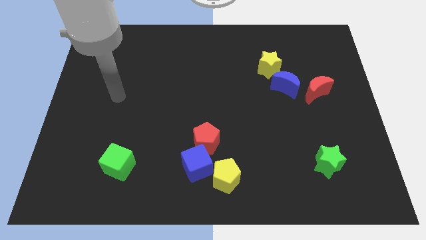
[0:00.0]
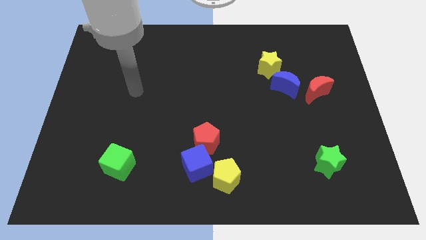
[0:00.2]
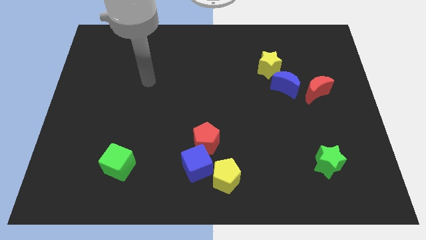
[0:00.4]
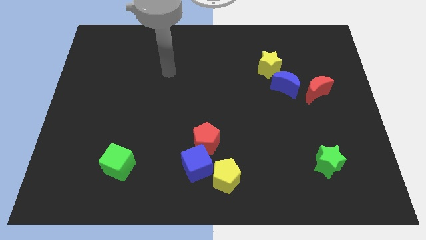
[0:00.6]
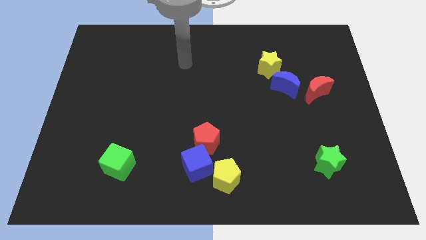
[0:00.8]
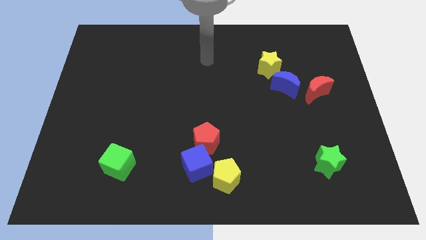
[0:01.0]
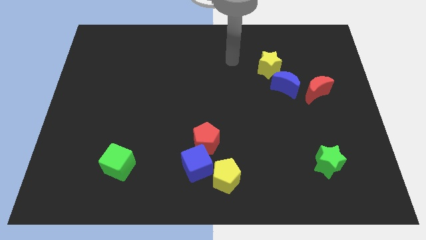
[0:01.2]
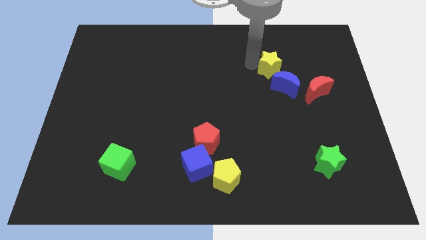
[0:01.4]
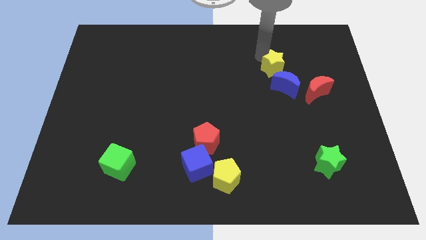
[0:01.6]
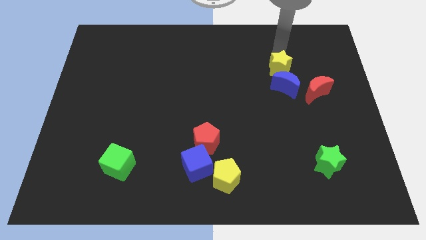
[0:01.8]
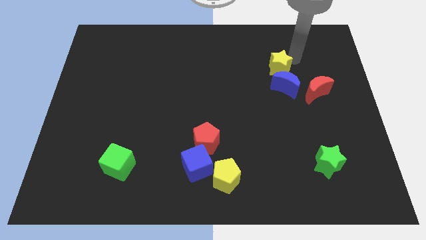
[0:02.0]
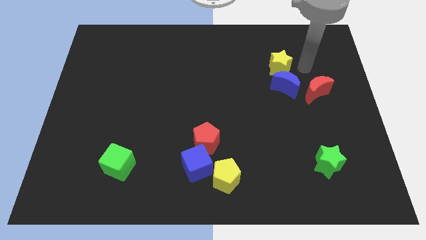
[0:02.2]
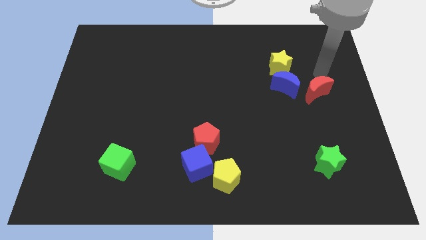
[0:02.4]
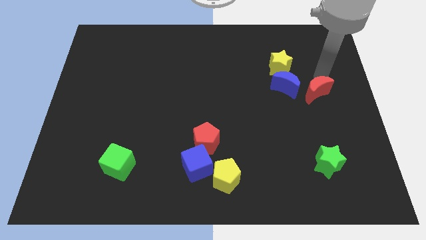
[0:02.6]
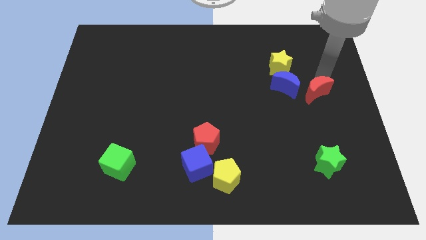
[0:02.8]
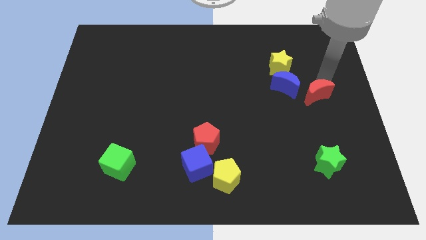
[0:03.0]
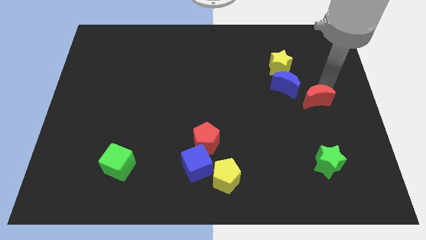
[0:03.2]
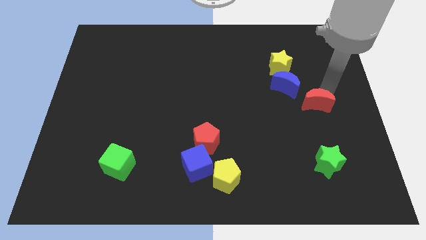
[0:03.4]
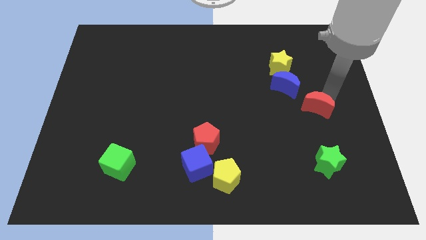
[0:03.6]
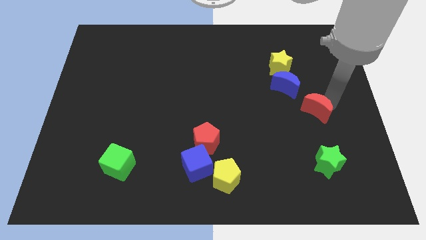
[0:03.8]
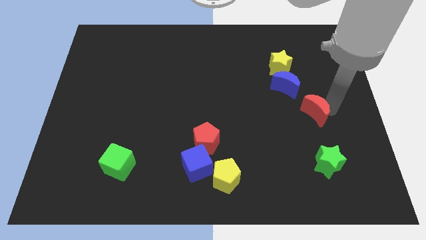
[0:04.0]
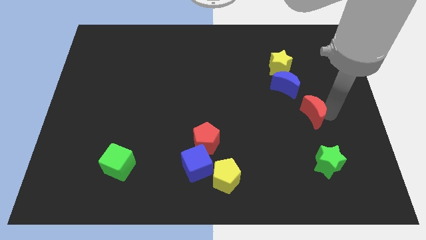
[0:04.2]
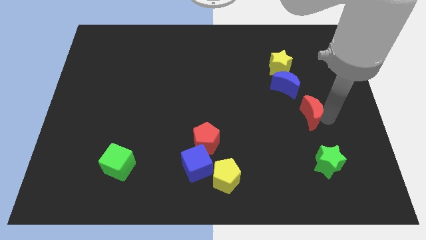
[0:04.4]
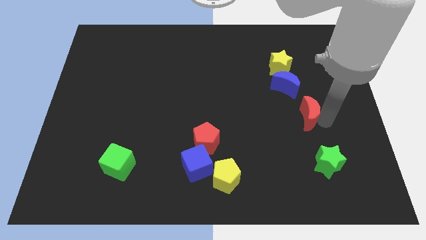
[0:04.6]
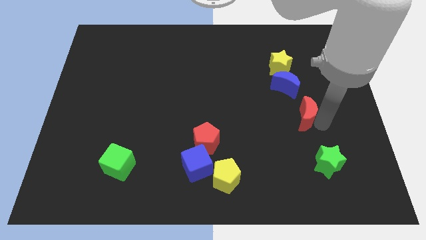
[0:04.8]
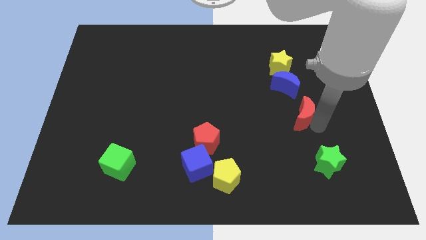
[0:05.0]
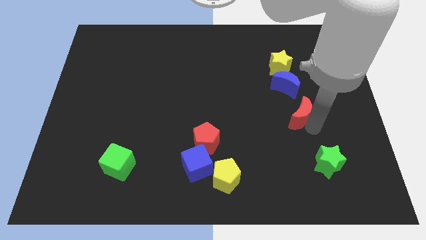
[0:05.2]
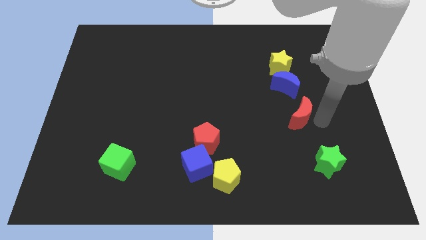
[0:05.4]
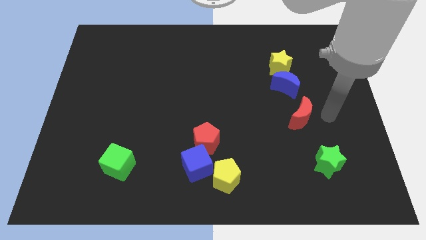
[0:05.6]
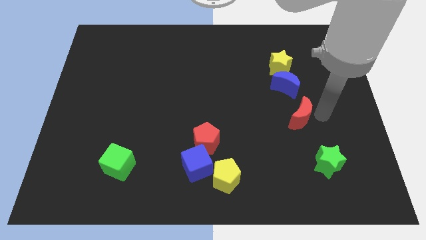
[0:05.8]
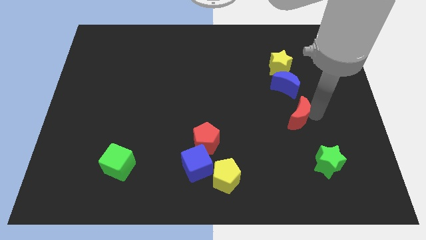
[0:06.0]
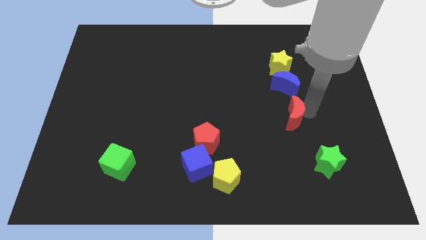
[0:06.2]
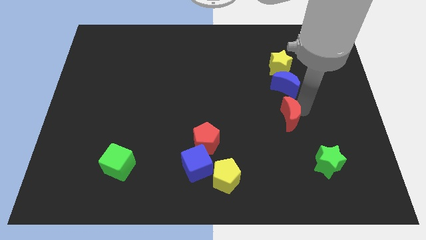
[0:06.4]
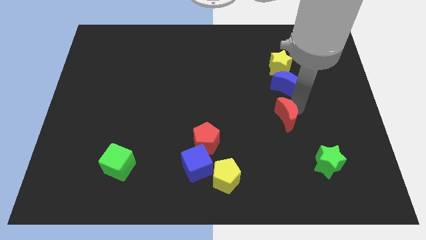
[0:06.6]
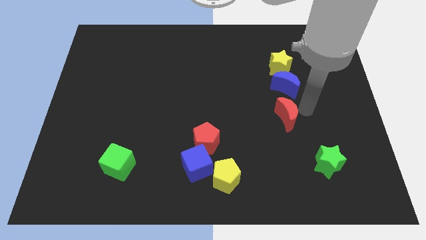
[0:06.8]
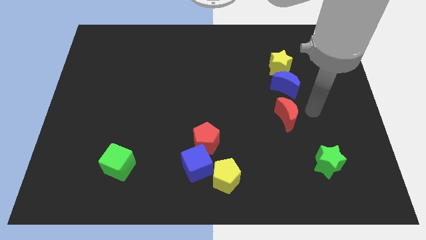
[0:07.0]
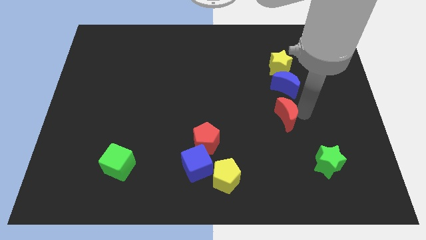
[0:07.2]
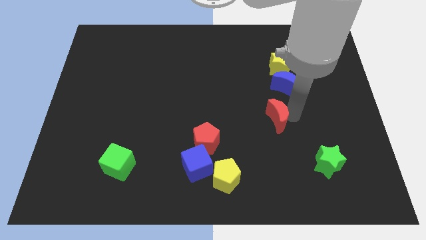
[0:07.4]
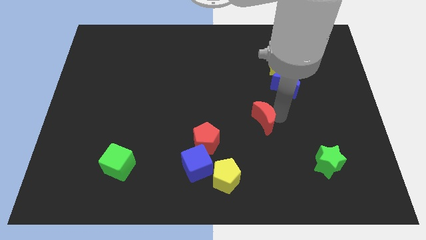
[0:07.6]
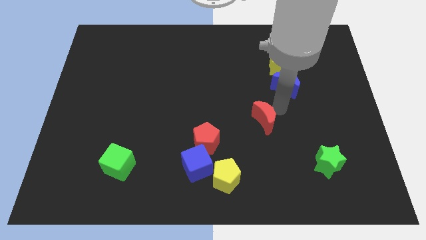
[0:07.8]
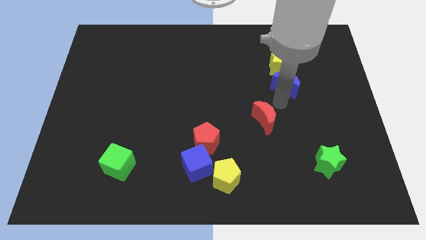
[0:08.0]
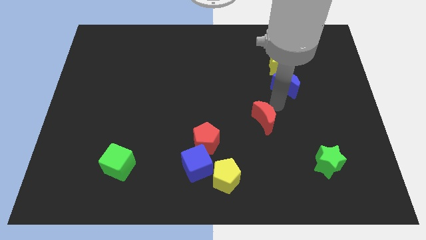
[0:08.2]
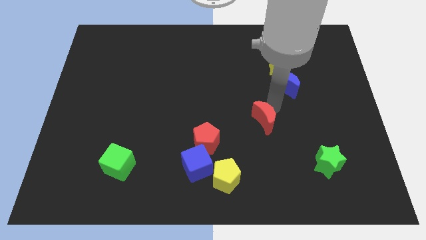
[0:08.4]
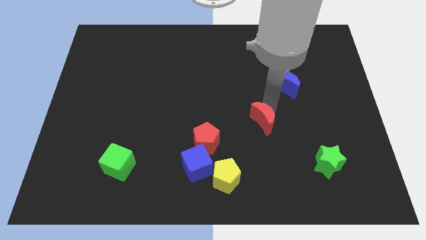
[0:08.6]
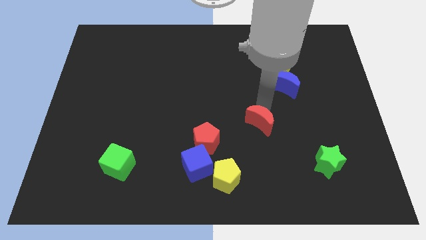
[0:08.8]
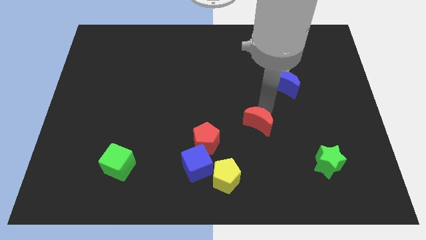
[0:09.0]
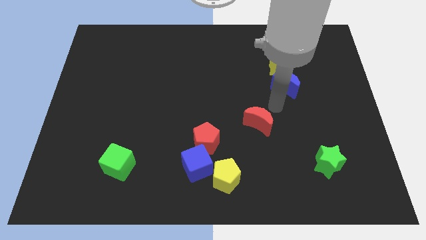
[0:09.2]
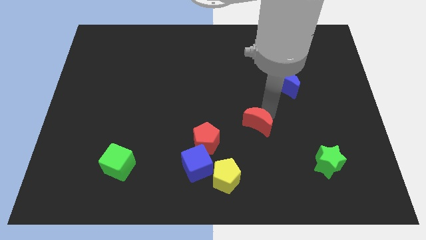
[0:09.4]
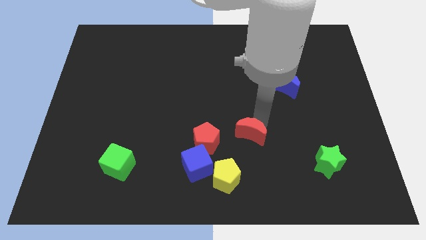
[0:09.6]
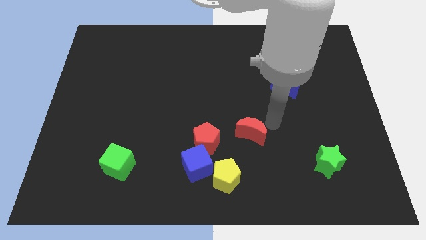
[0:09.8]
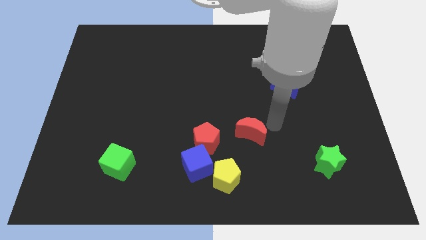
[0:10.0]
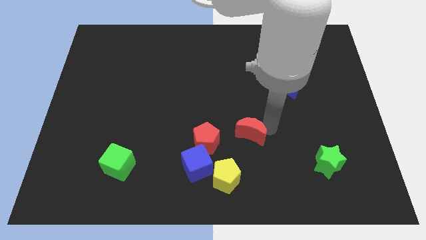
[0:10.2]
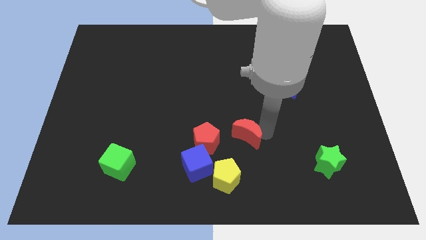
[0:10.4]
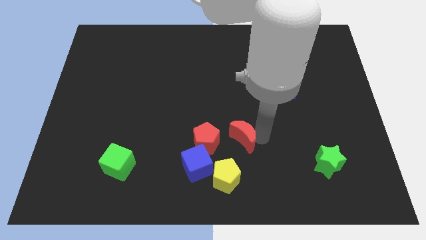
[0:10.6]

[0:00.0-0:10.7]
push the red moon to the top right side of the blue cube

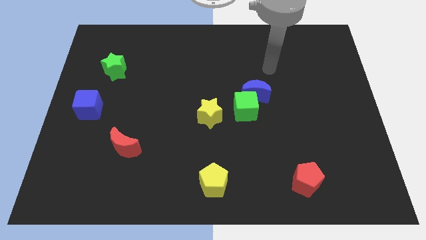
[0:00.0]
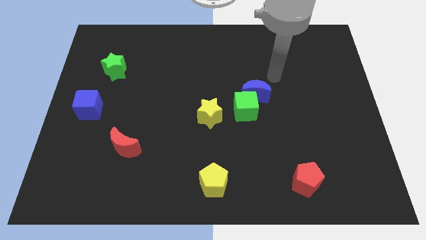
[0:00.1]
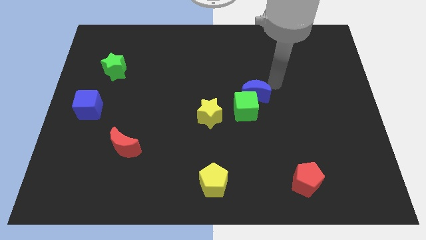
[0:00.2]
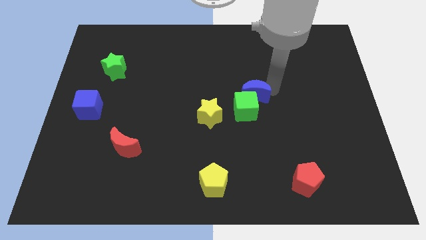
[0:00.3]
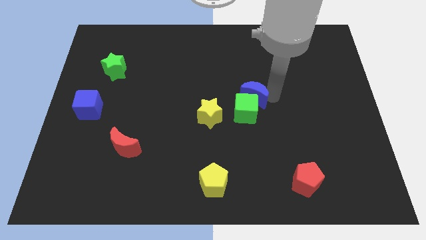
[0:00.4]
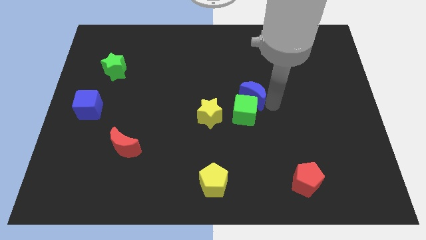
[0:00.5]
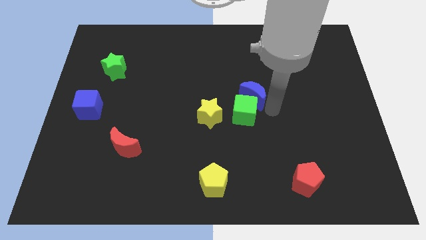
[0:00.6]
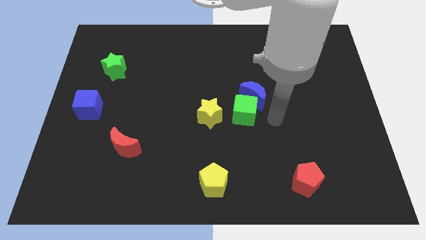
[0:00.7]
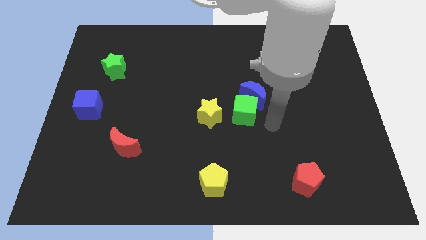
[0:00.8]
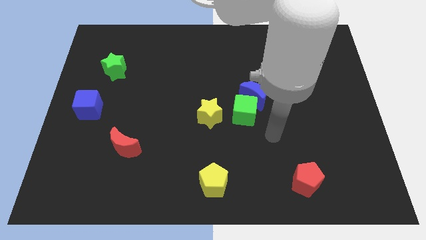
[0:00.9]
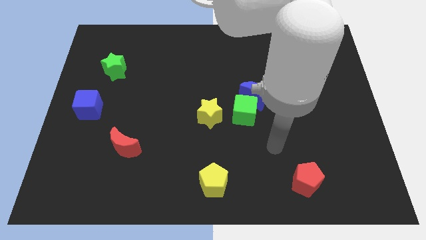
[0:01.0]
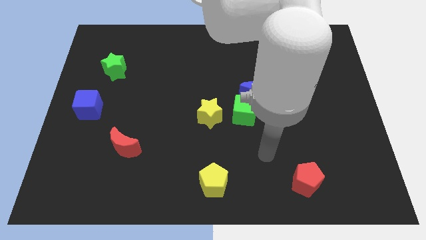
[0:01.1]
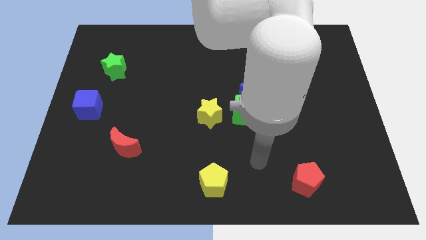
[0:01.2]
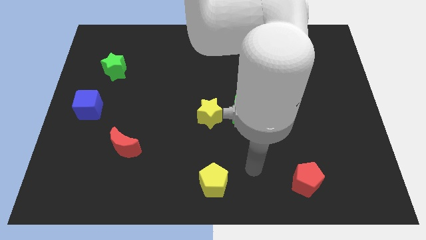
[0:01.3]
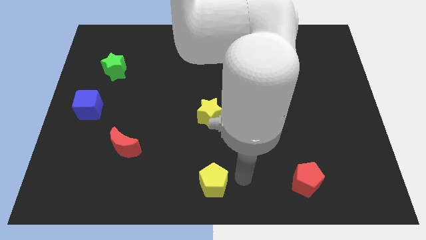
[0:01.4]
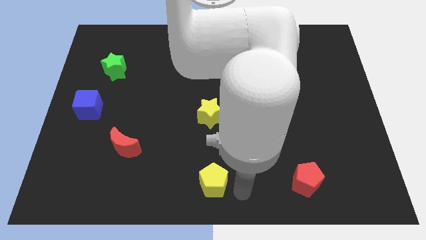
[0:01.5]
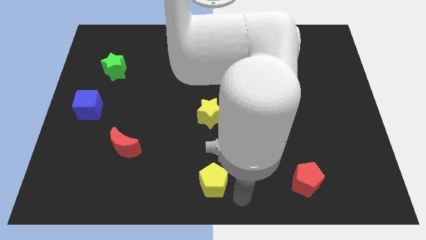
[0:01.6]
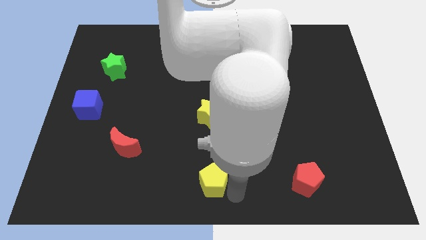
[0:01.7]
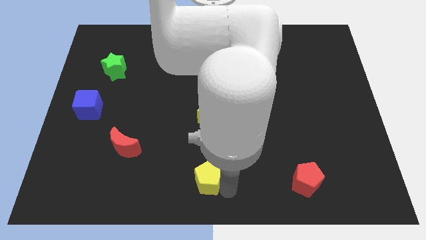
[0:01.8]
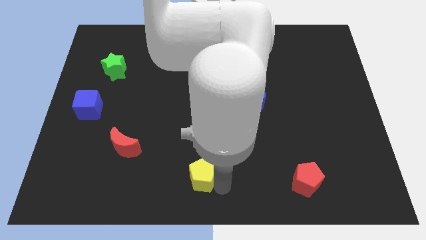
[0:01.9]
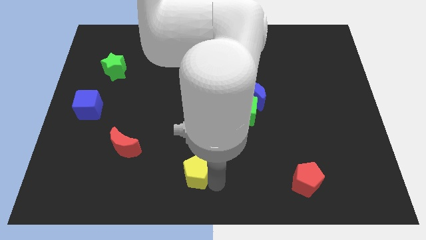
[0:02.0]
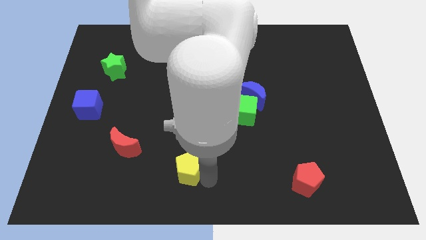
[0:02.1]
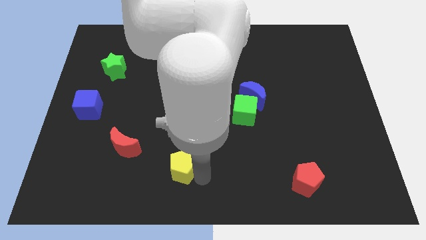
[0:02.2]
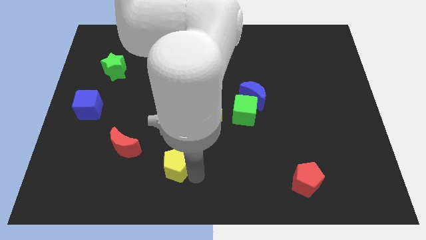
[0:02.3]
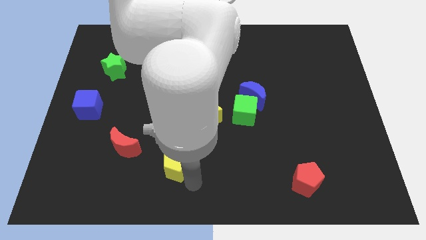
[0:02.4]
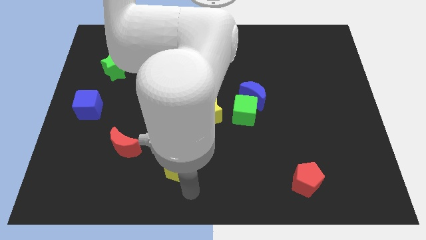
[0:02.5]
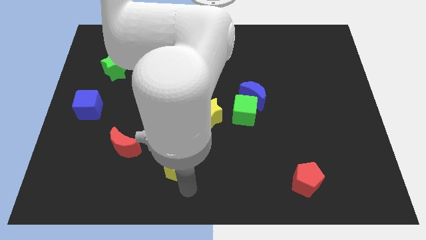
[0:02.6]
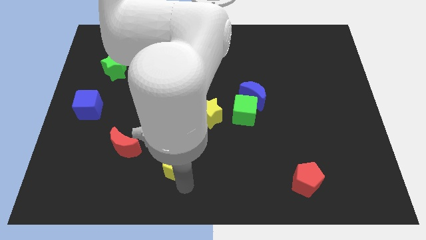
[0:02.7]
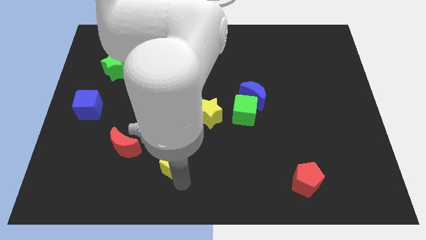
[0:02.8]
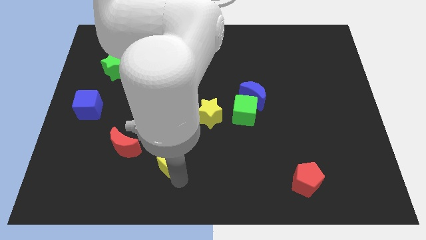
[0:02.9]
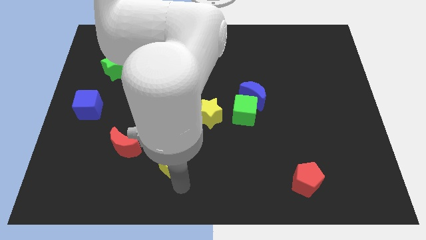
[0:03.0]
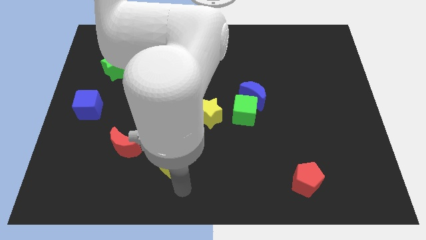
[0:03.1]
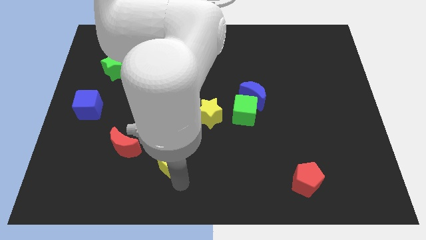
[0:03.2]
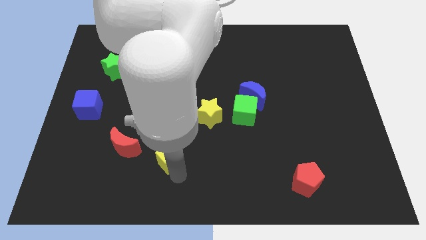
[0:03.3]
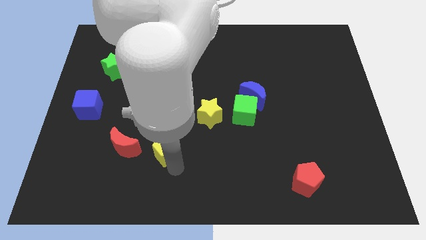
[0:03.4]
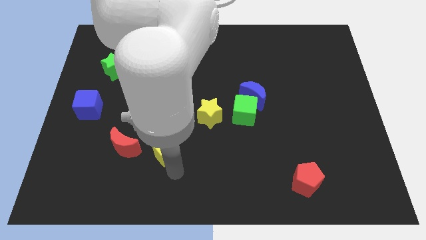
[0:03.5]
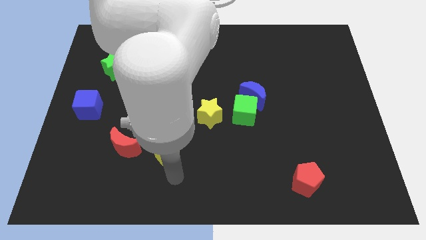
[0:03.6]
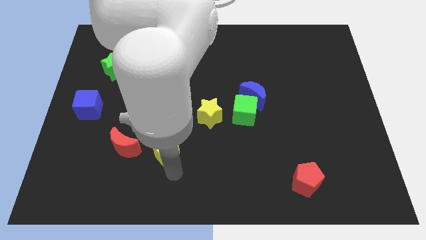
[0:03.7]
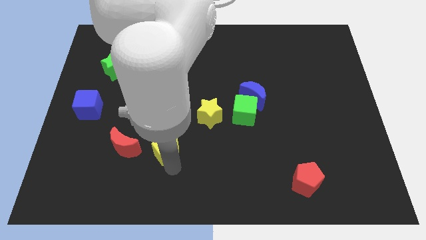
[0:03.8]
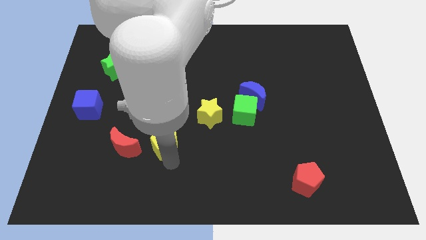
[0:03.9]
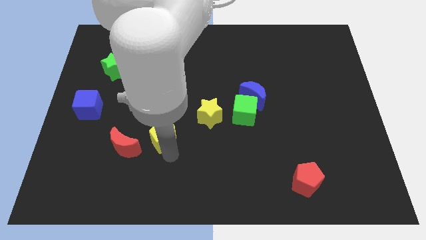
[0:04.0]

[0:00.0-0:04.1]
slide the yellow pentagon diagonally up and to the right of the red moon
